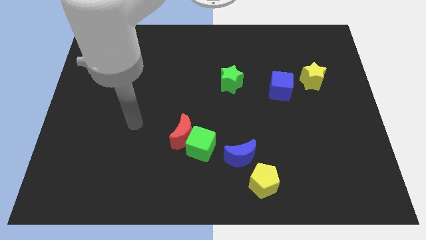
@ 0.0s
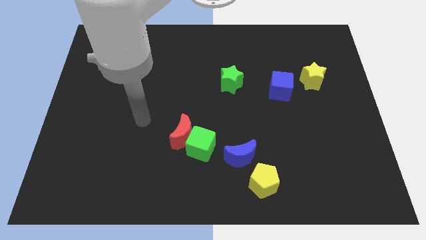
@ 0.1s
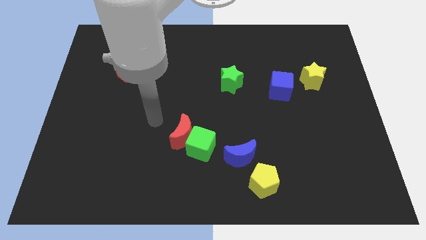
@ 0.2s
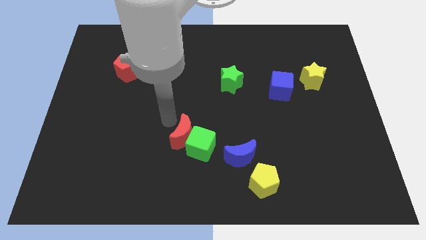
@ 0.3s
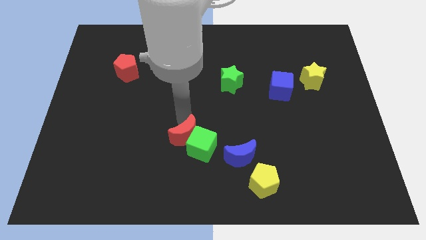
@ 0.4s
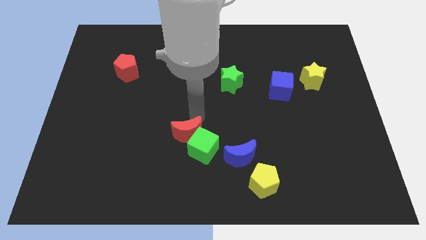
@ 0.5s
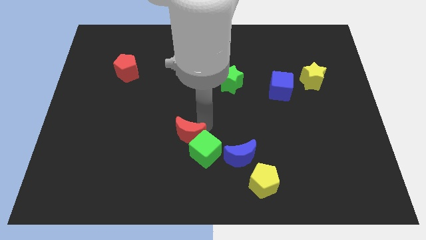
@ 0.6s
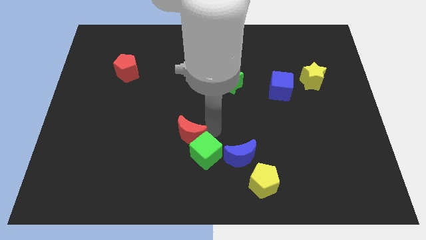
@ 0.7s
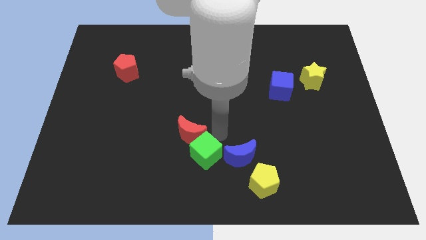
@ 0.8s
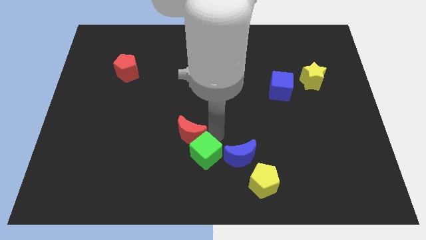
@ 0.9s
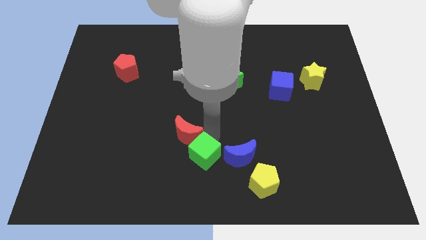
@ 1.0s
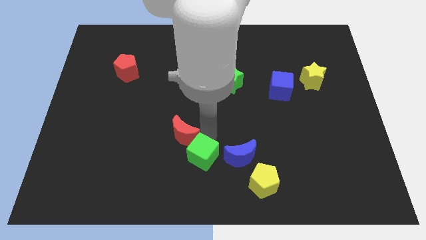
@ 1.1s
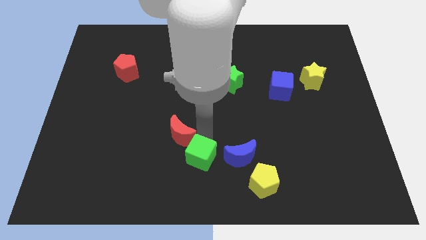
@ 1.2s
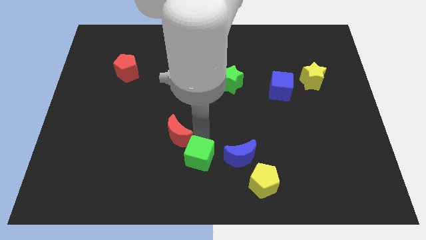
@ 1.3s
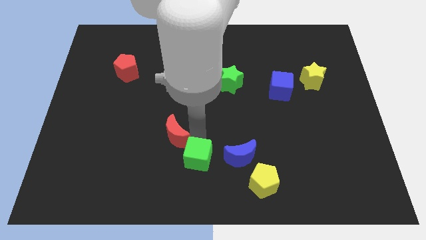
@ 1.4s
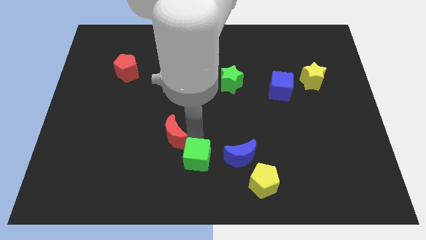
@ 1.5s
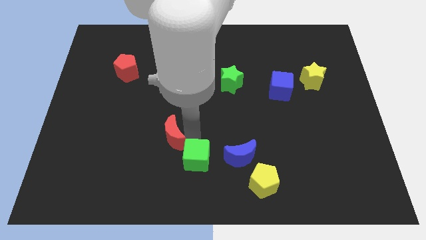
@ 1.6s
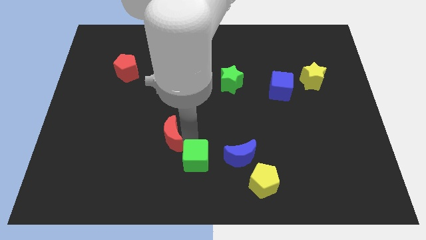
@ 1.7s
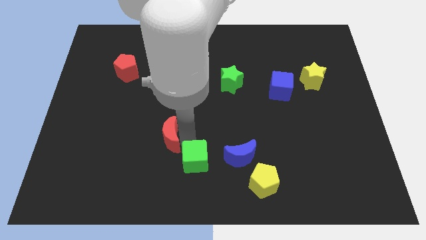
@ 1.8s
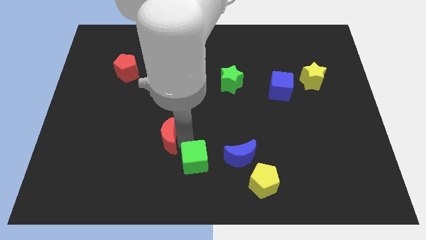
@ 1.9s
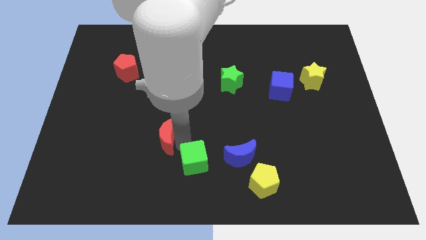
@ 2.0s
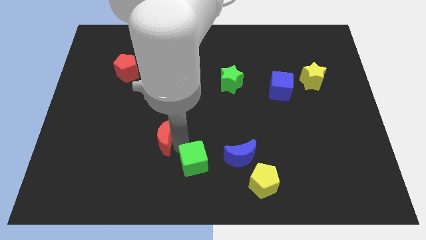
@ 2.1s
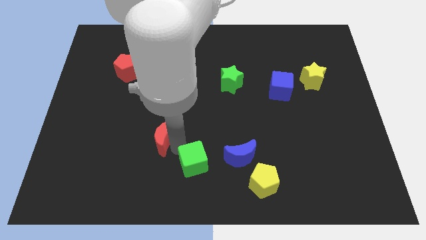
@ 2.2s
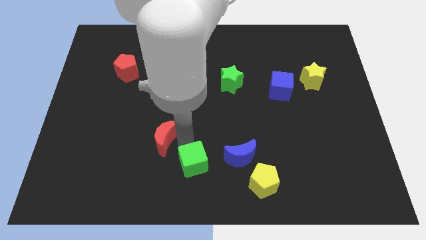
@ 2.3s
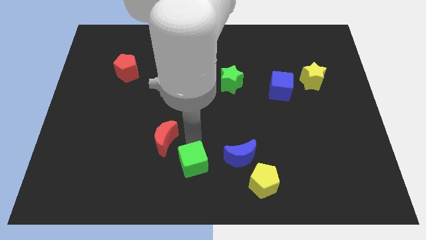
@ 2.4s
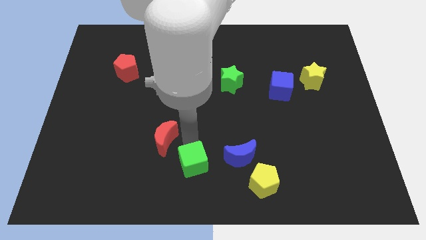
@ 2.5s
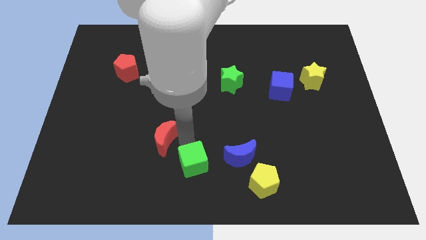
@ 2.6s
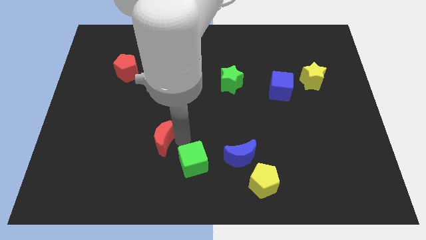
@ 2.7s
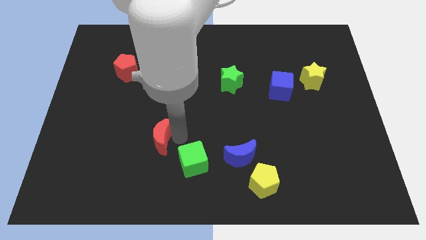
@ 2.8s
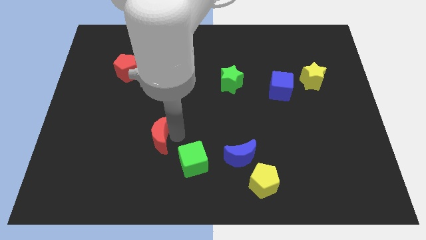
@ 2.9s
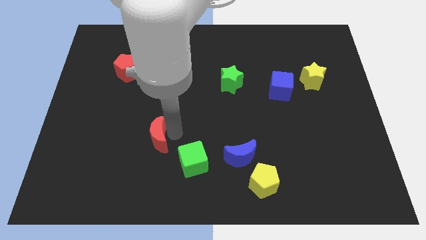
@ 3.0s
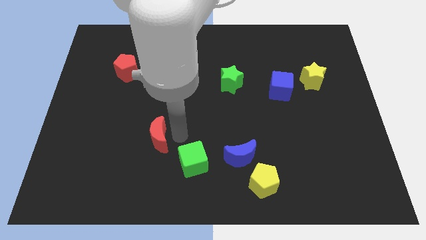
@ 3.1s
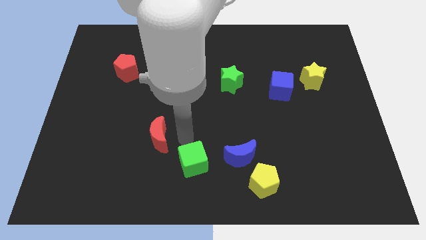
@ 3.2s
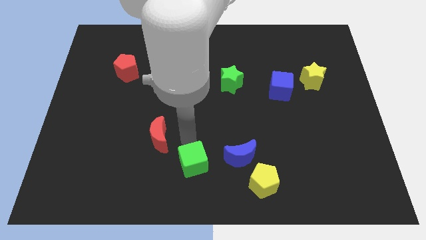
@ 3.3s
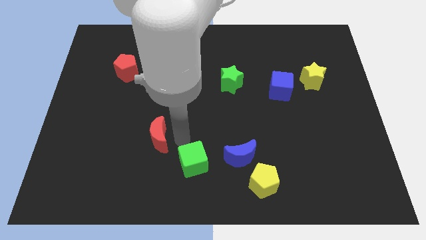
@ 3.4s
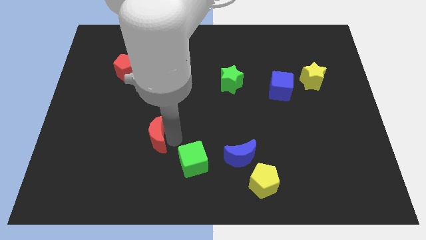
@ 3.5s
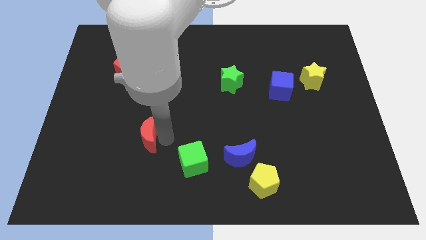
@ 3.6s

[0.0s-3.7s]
move the red moon a little bit left

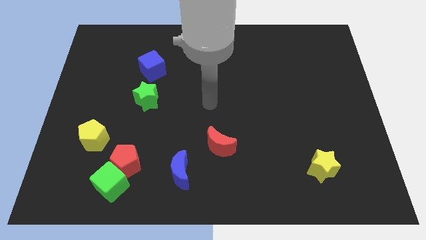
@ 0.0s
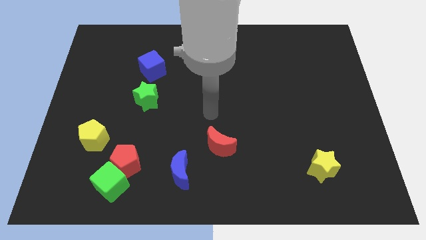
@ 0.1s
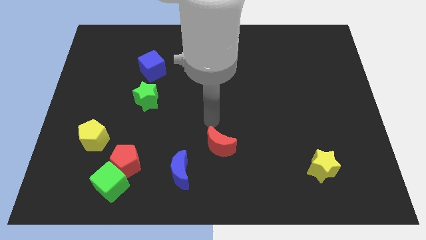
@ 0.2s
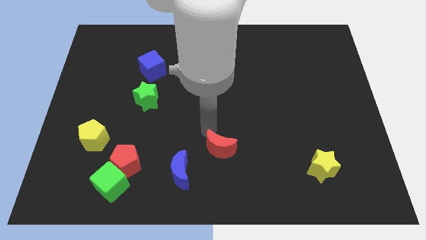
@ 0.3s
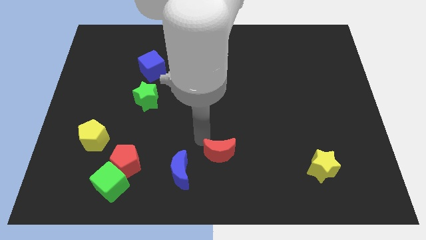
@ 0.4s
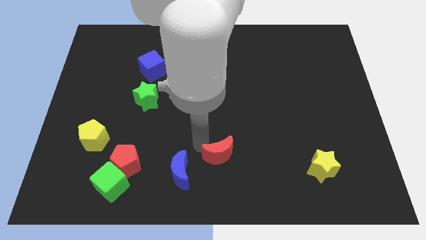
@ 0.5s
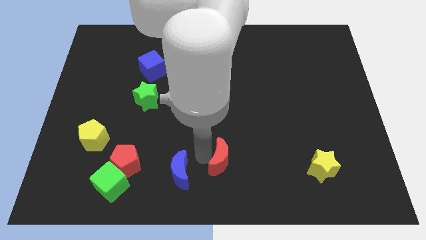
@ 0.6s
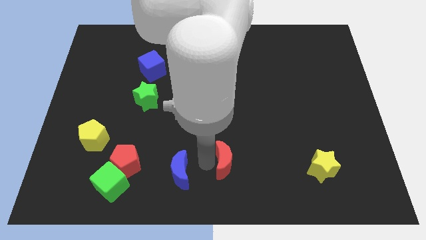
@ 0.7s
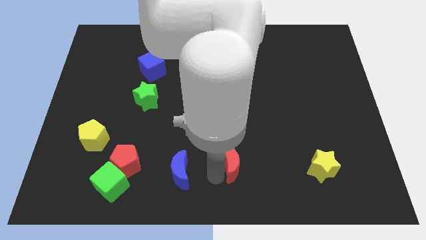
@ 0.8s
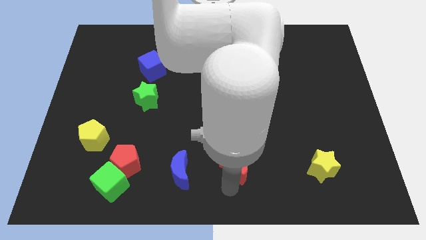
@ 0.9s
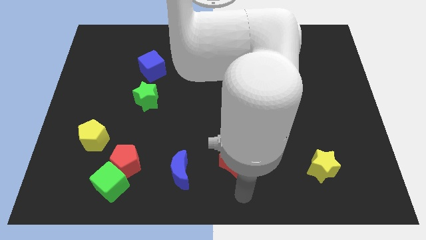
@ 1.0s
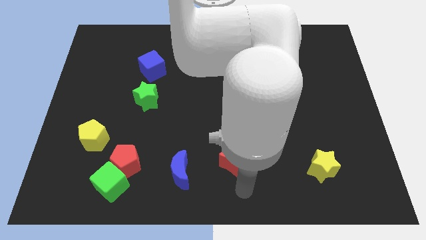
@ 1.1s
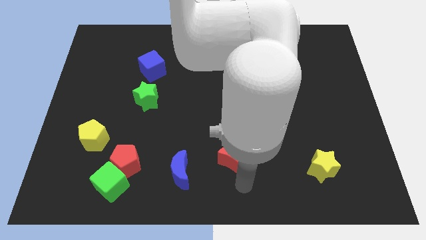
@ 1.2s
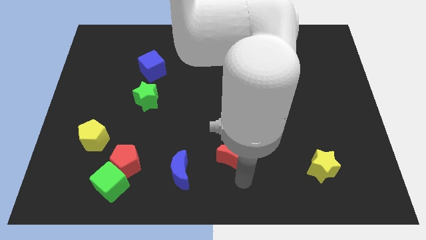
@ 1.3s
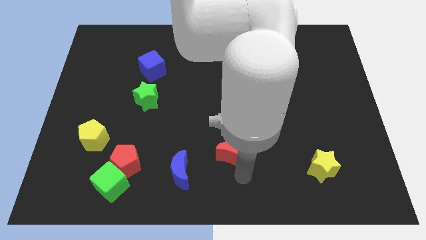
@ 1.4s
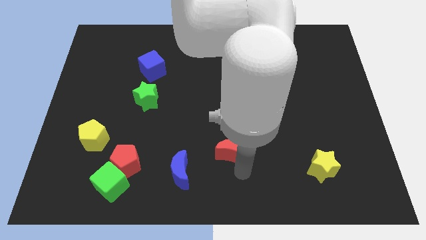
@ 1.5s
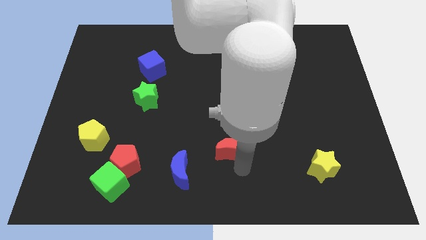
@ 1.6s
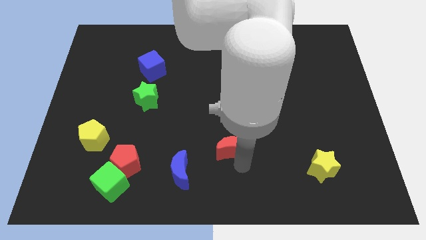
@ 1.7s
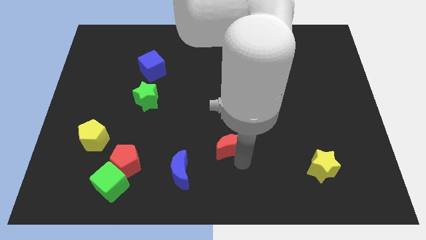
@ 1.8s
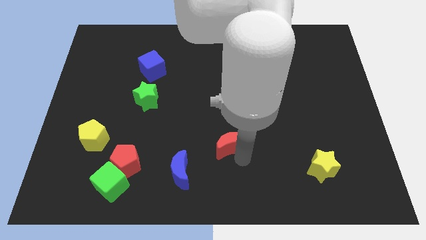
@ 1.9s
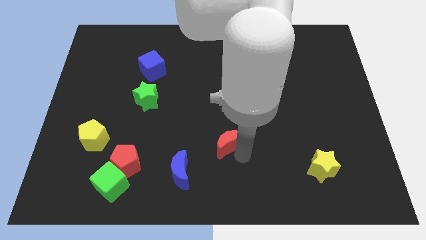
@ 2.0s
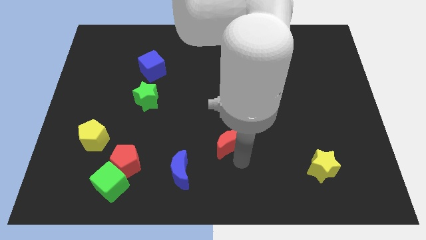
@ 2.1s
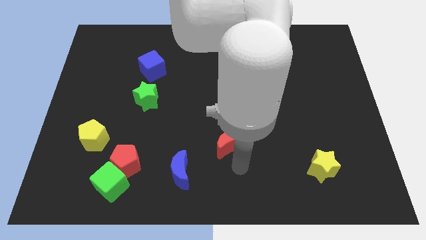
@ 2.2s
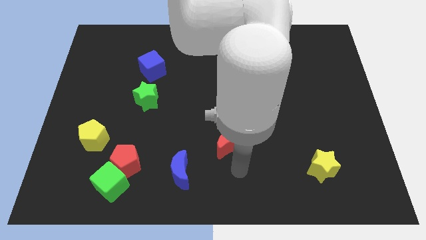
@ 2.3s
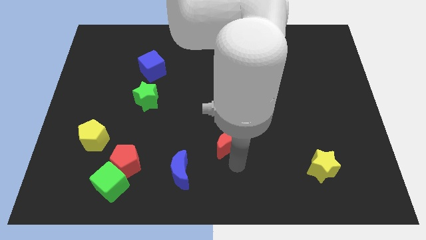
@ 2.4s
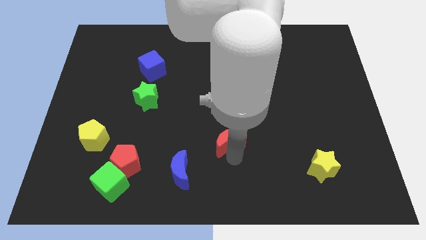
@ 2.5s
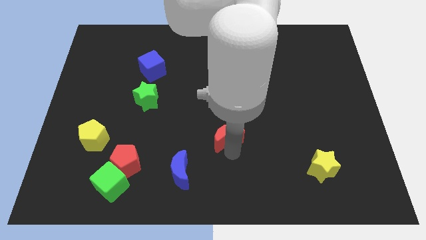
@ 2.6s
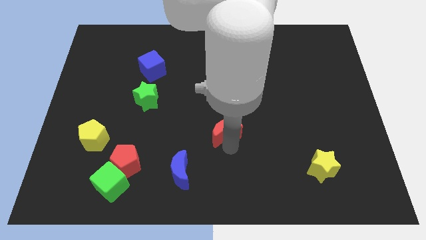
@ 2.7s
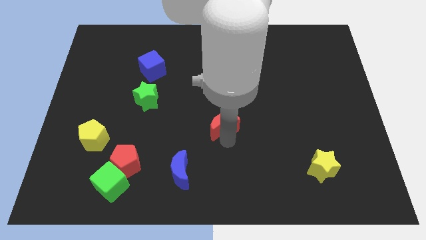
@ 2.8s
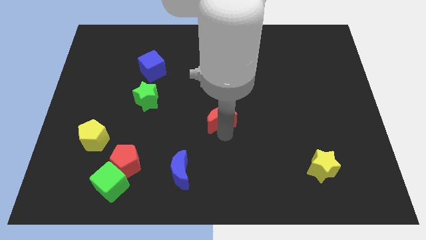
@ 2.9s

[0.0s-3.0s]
slide the red moon upwards a bit

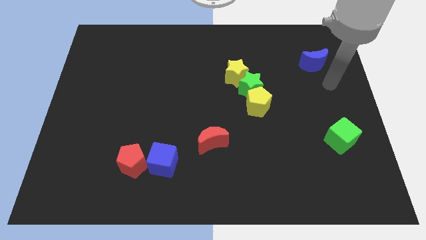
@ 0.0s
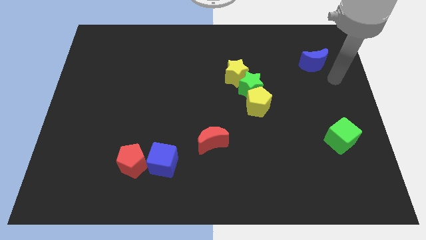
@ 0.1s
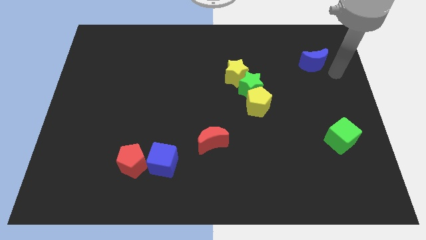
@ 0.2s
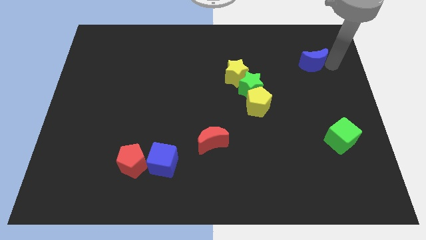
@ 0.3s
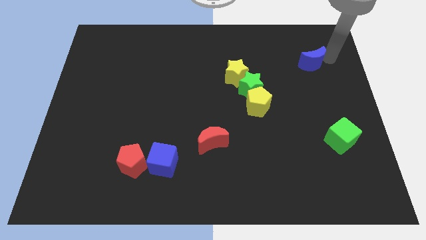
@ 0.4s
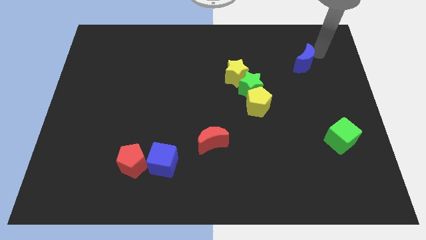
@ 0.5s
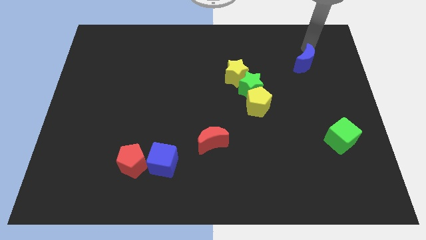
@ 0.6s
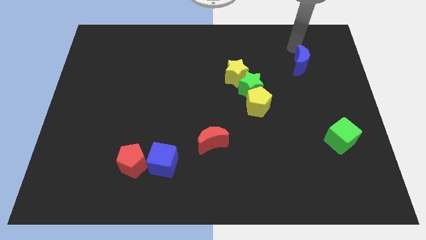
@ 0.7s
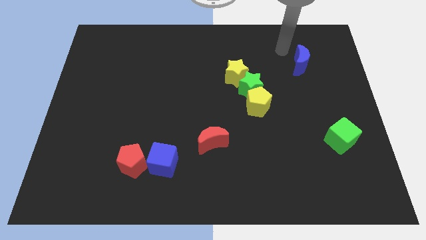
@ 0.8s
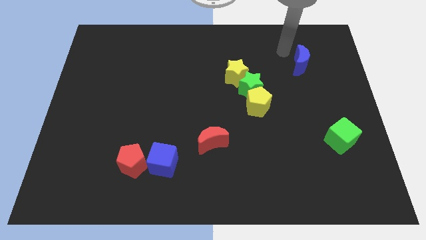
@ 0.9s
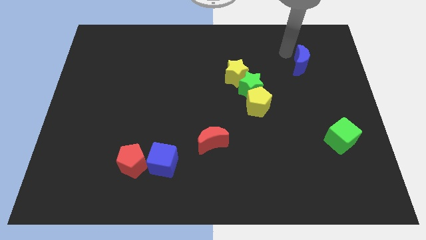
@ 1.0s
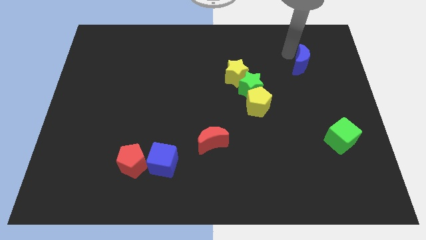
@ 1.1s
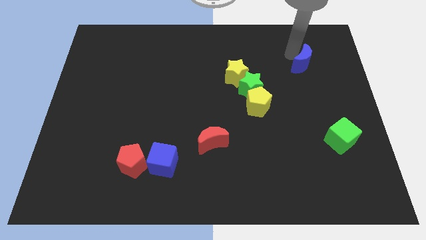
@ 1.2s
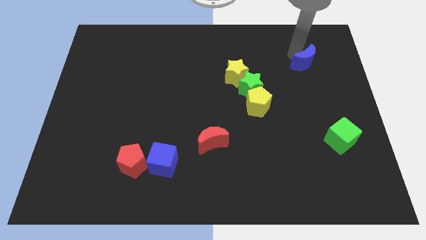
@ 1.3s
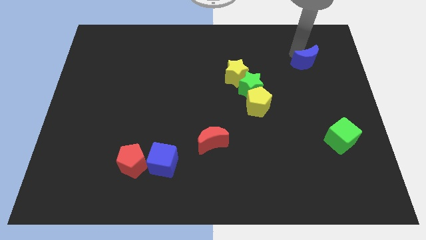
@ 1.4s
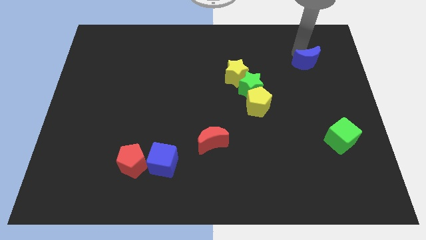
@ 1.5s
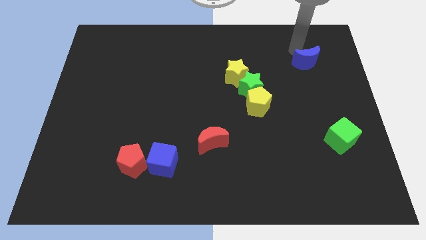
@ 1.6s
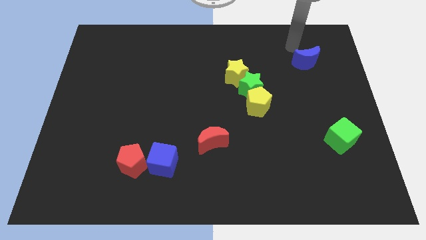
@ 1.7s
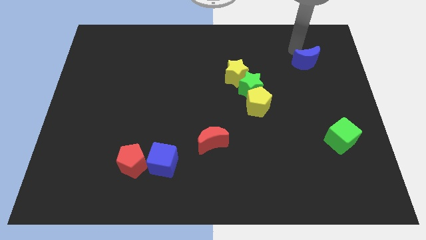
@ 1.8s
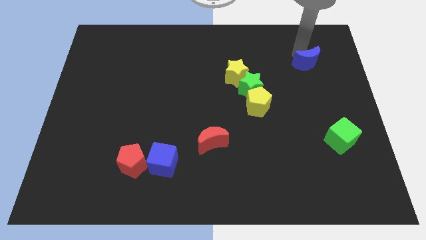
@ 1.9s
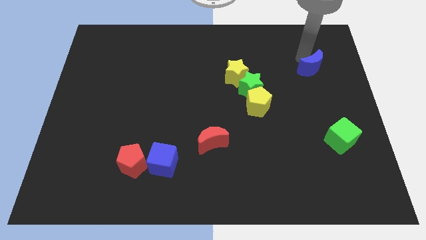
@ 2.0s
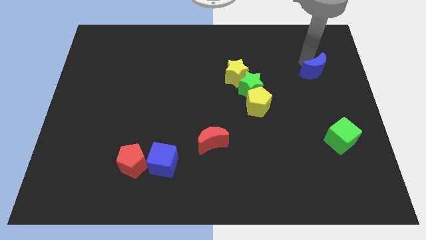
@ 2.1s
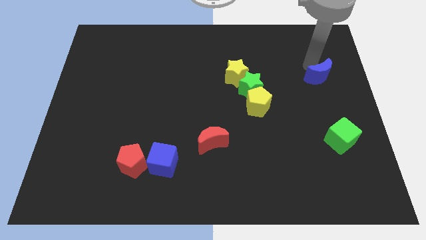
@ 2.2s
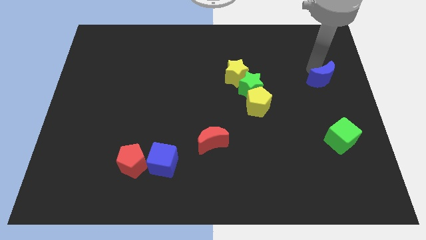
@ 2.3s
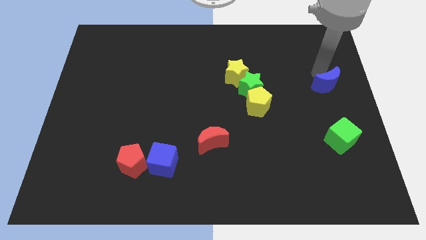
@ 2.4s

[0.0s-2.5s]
slightly move the blue moon downwards
